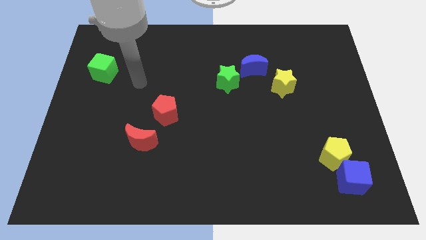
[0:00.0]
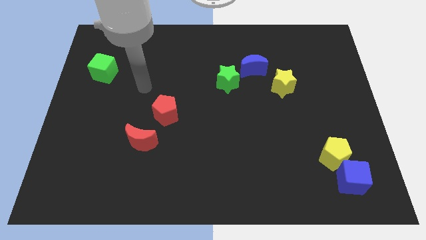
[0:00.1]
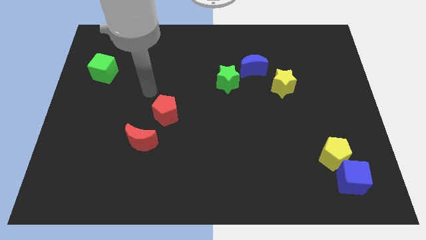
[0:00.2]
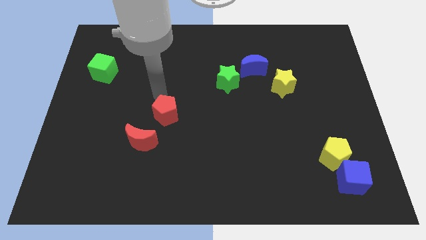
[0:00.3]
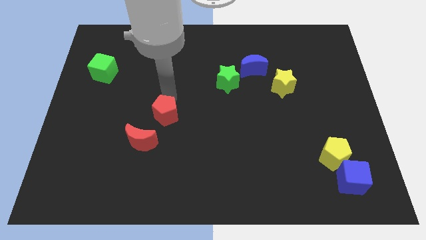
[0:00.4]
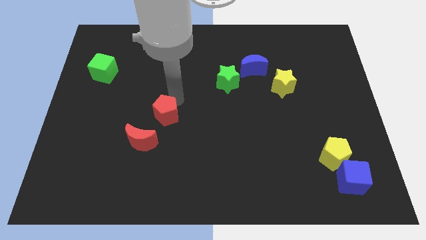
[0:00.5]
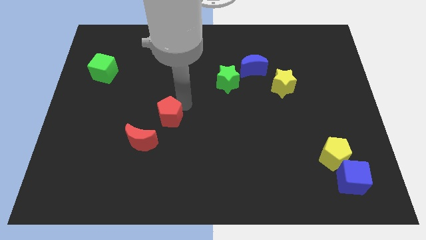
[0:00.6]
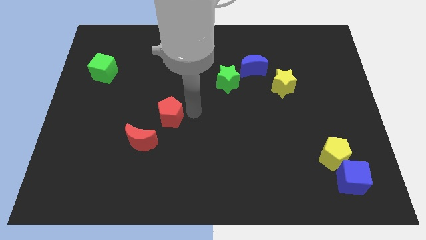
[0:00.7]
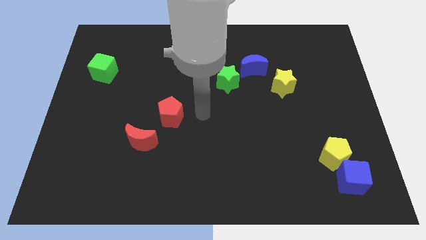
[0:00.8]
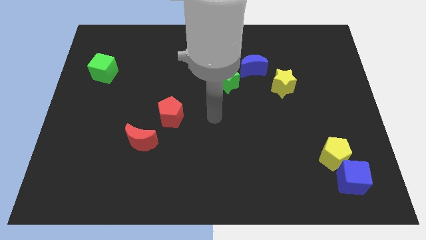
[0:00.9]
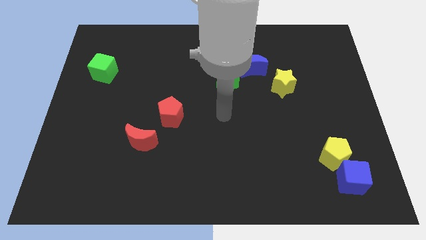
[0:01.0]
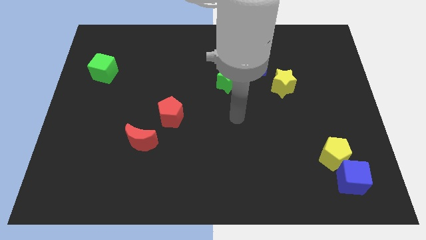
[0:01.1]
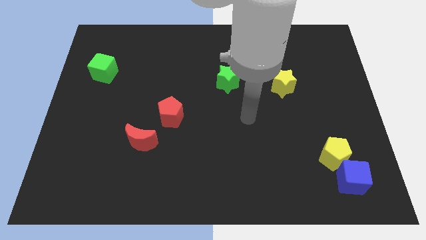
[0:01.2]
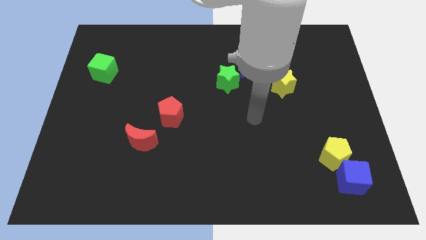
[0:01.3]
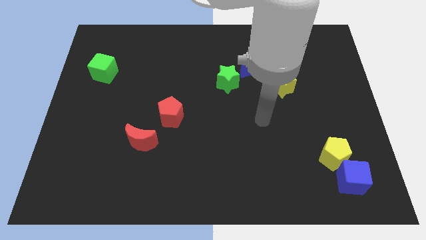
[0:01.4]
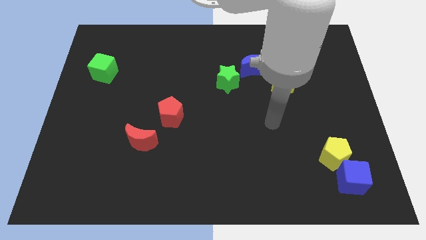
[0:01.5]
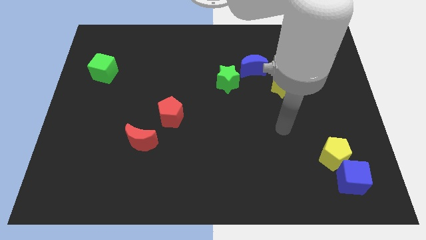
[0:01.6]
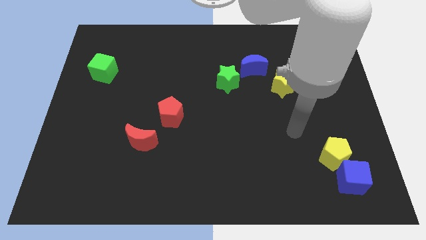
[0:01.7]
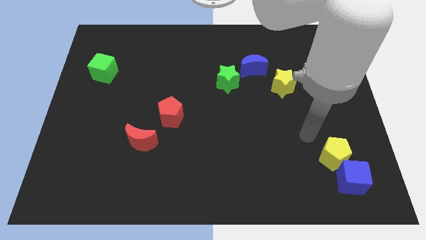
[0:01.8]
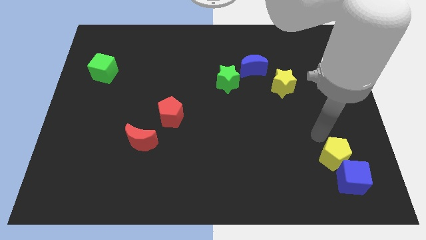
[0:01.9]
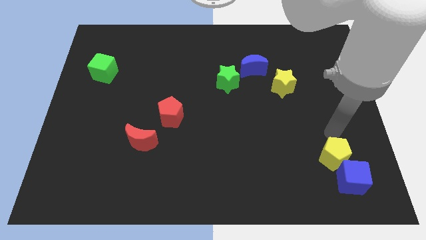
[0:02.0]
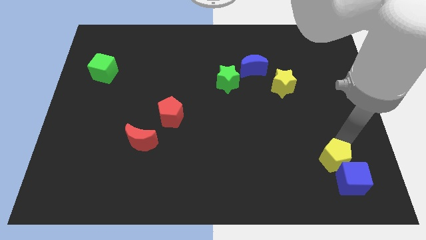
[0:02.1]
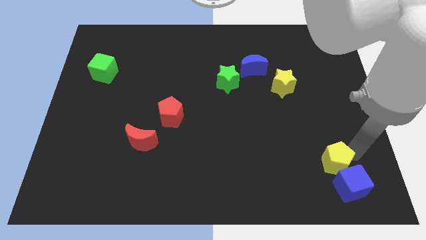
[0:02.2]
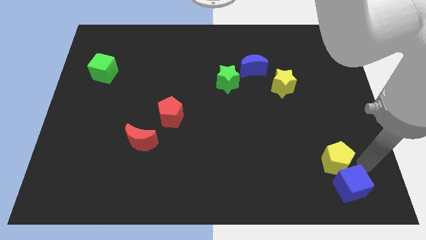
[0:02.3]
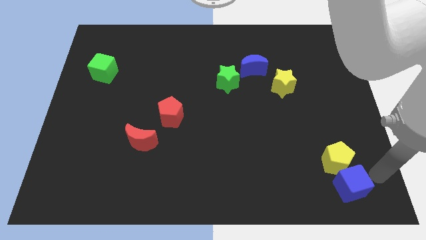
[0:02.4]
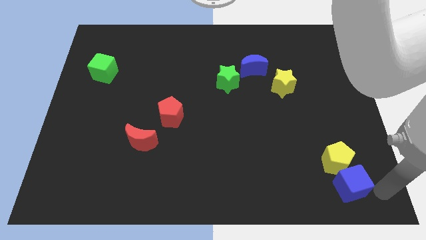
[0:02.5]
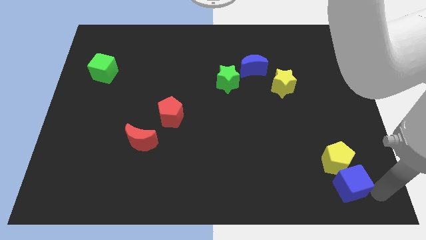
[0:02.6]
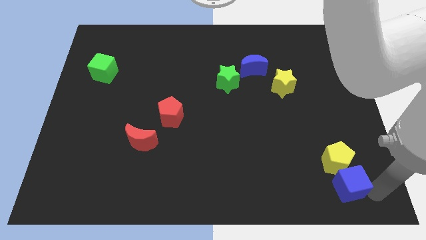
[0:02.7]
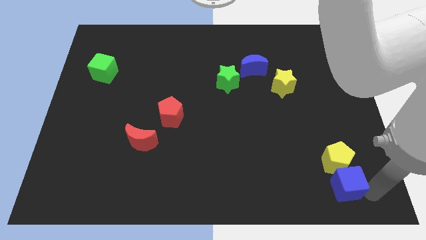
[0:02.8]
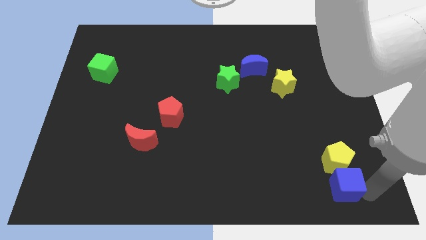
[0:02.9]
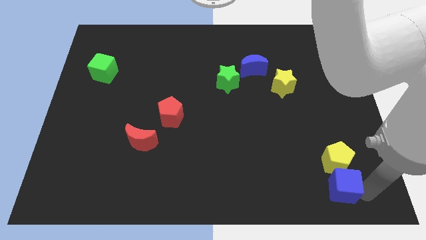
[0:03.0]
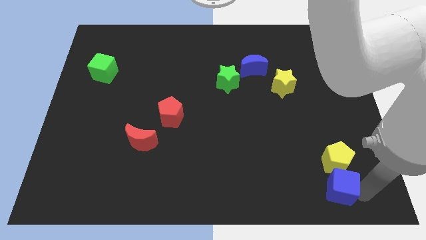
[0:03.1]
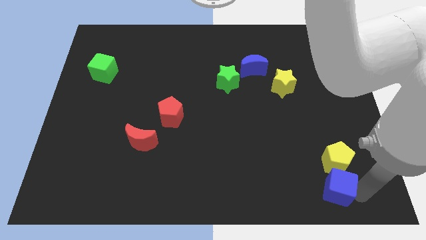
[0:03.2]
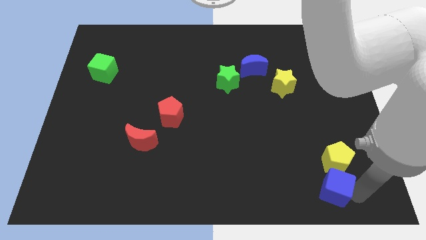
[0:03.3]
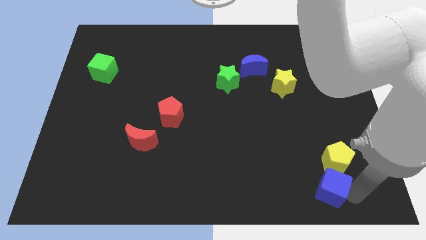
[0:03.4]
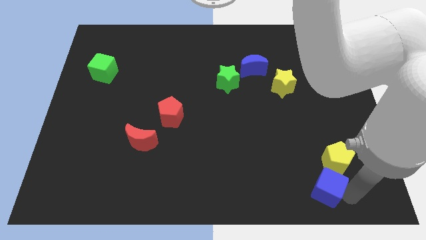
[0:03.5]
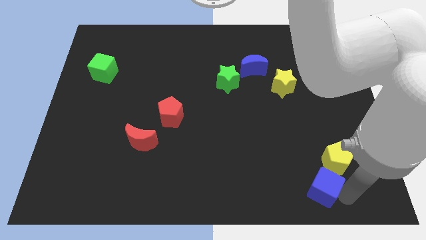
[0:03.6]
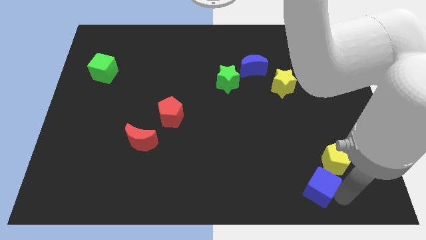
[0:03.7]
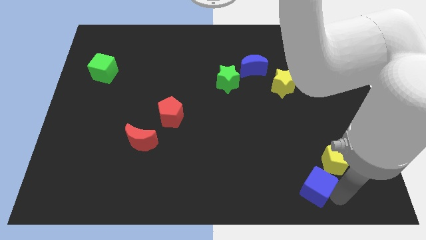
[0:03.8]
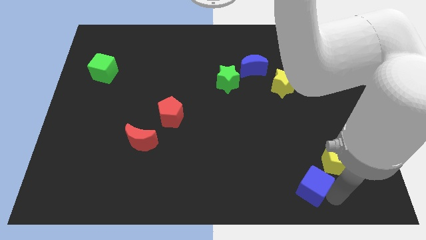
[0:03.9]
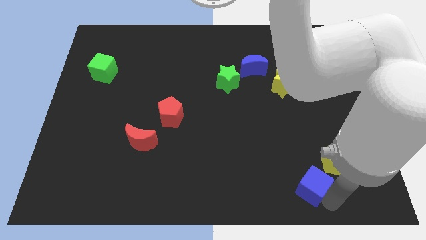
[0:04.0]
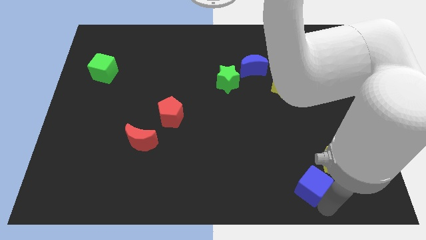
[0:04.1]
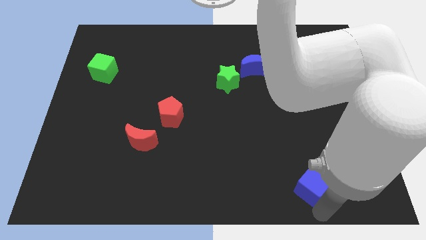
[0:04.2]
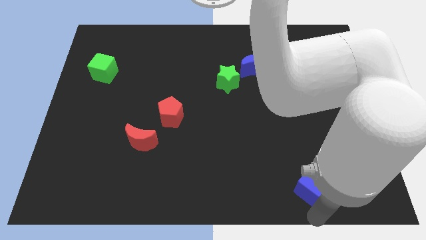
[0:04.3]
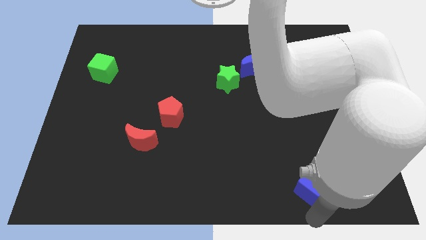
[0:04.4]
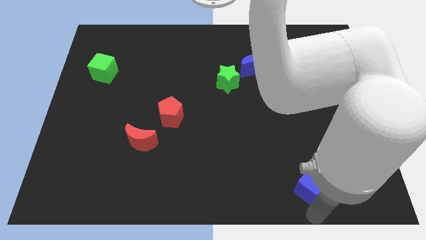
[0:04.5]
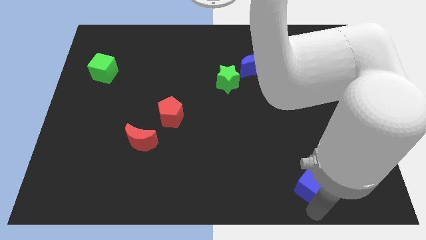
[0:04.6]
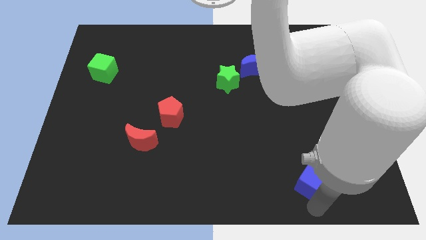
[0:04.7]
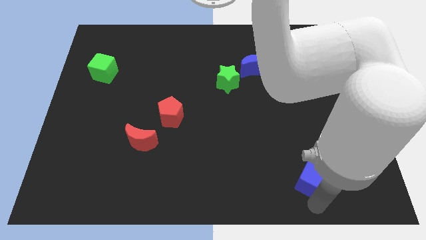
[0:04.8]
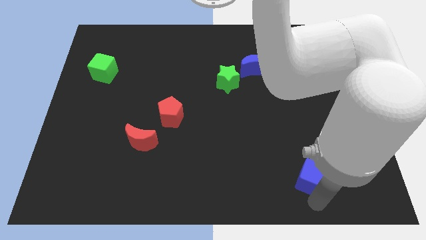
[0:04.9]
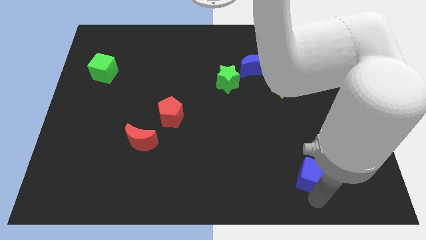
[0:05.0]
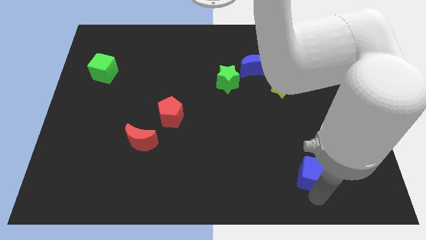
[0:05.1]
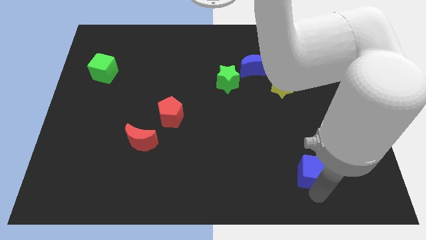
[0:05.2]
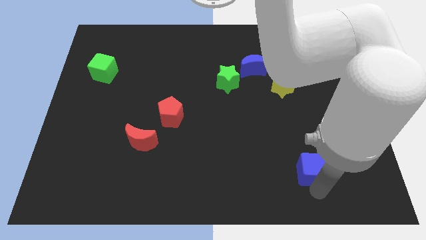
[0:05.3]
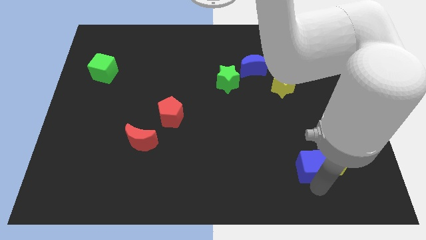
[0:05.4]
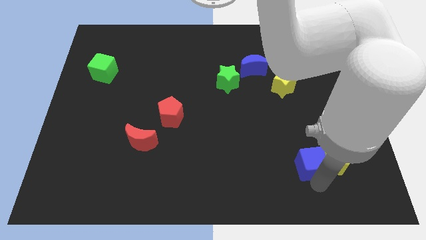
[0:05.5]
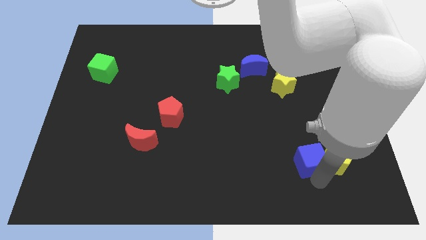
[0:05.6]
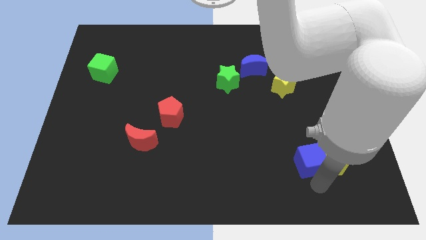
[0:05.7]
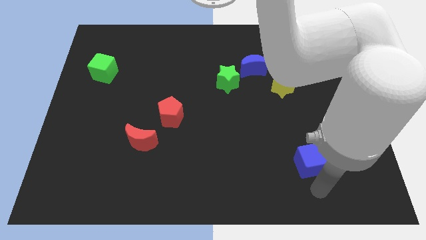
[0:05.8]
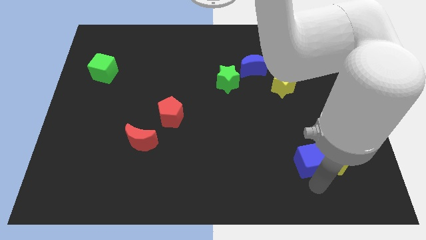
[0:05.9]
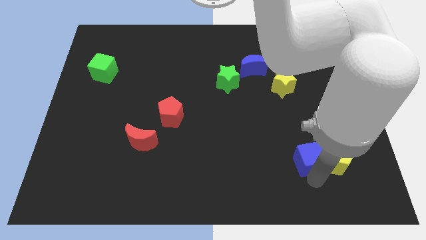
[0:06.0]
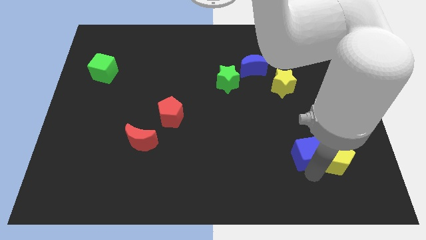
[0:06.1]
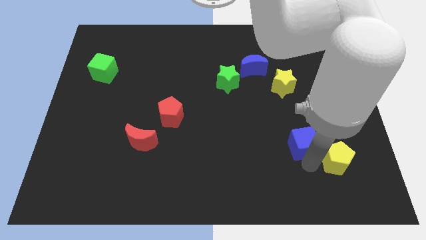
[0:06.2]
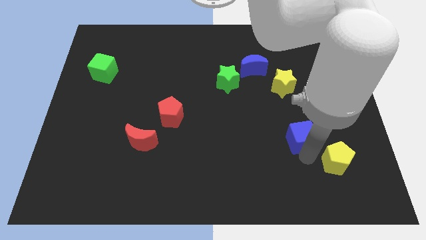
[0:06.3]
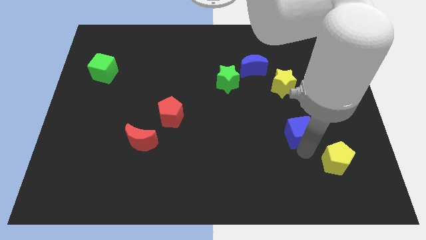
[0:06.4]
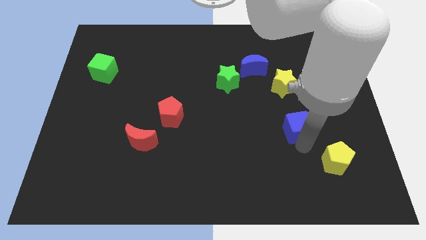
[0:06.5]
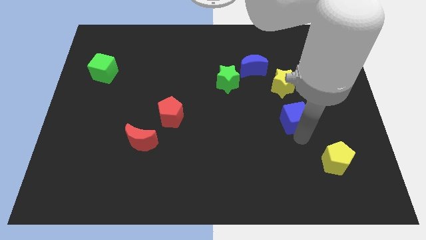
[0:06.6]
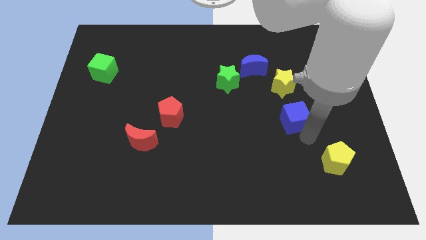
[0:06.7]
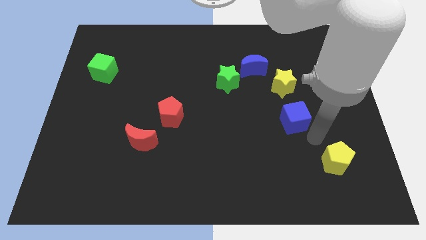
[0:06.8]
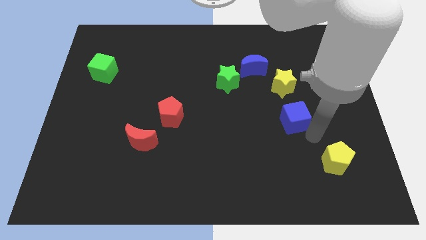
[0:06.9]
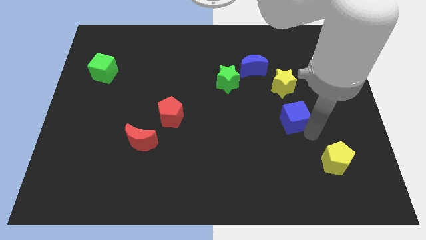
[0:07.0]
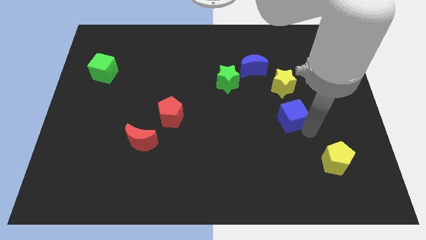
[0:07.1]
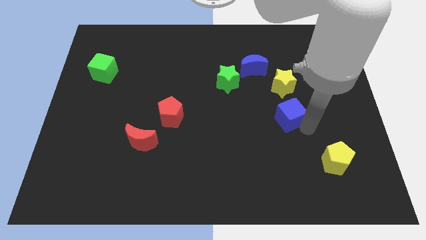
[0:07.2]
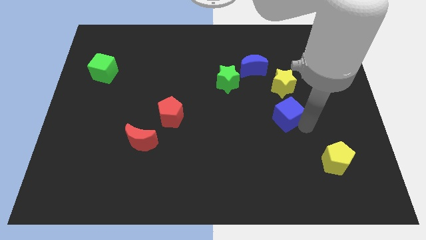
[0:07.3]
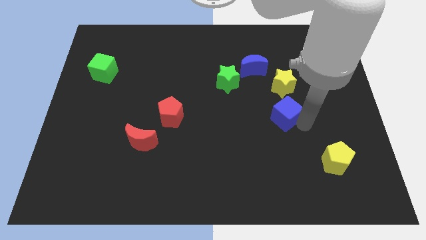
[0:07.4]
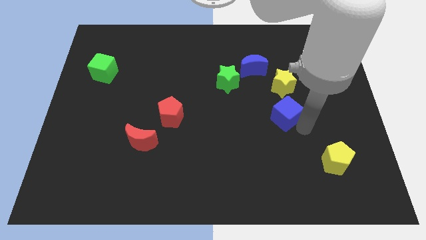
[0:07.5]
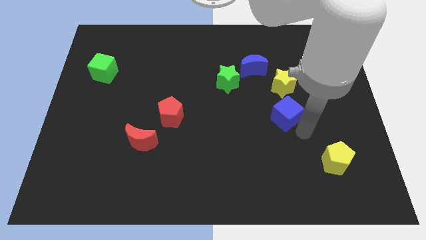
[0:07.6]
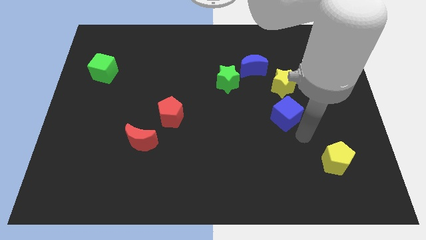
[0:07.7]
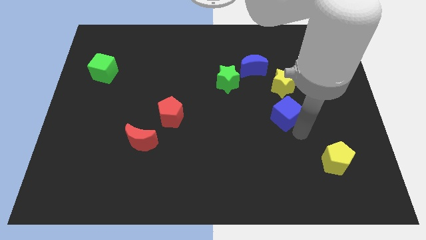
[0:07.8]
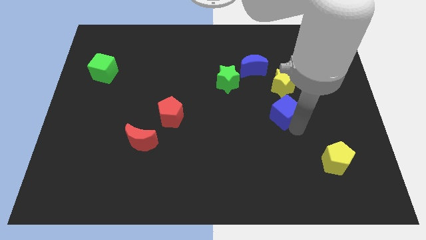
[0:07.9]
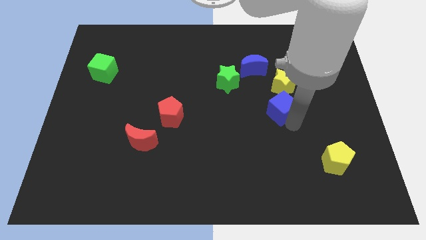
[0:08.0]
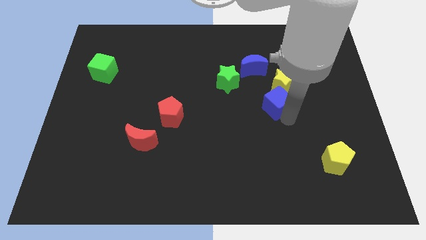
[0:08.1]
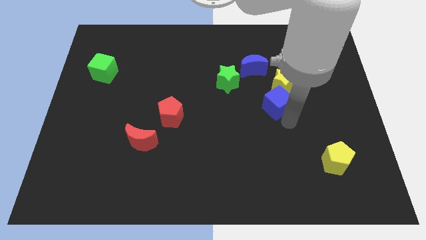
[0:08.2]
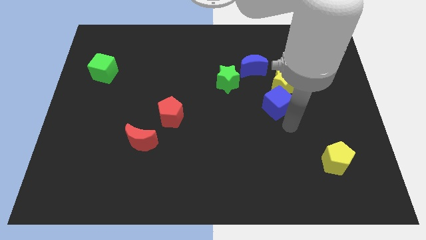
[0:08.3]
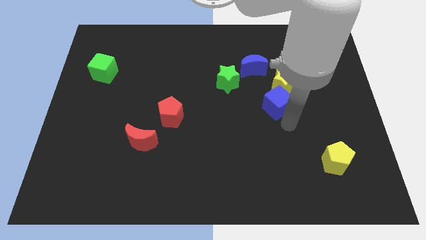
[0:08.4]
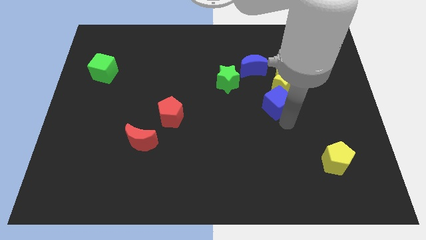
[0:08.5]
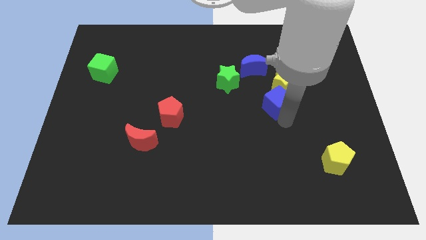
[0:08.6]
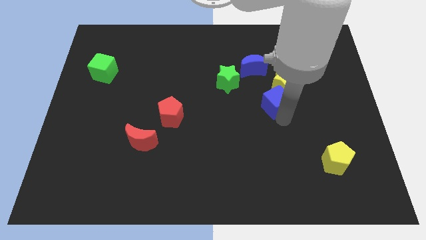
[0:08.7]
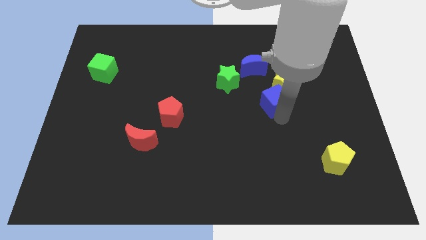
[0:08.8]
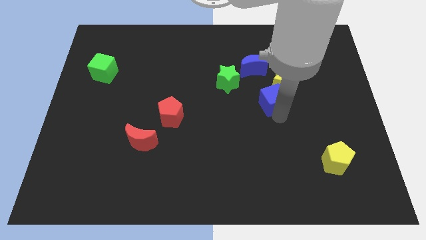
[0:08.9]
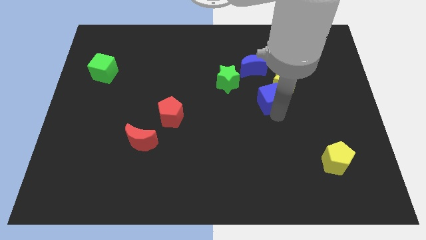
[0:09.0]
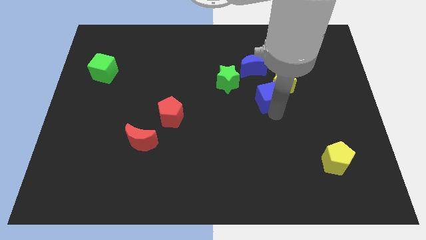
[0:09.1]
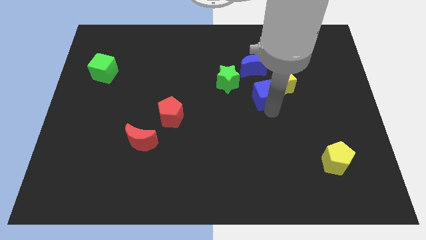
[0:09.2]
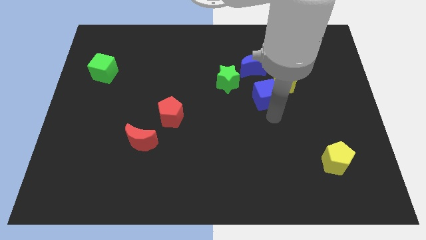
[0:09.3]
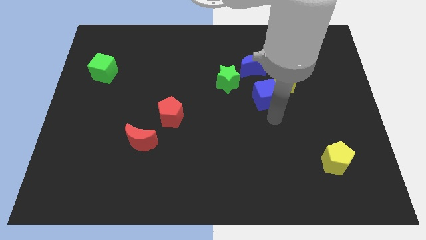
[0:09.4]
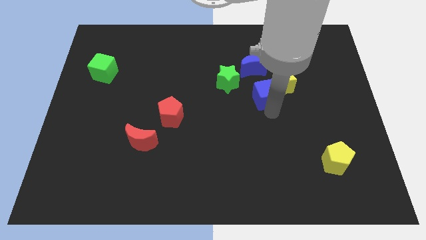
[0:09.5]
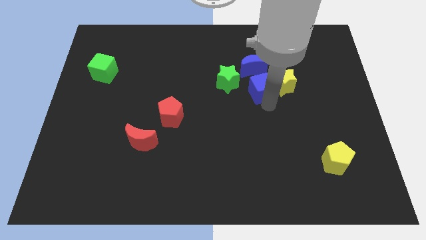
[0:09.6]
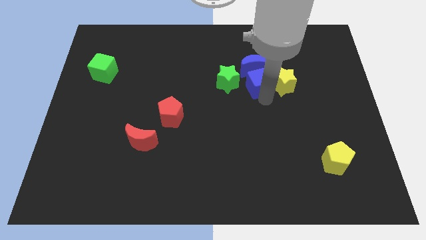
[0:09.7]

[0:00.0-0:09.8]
slide the blue cube to the blue moon
